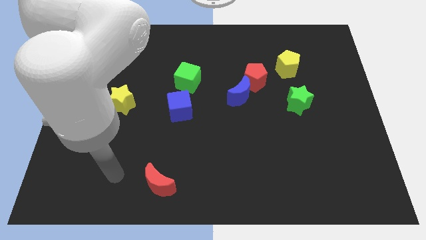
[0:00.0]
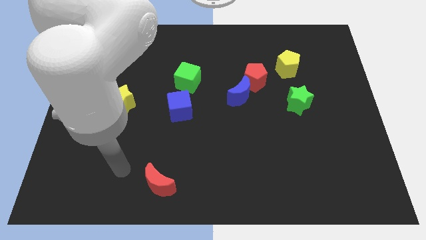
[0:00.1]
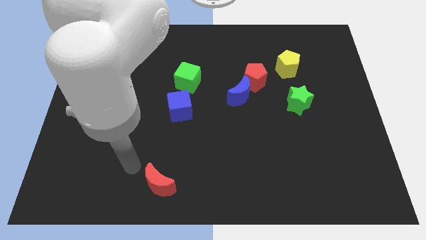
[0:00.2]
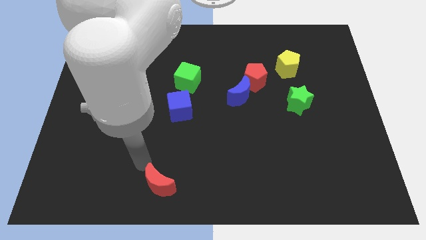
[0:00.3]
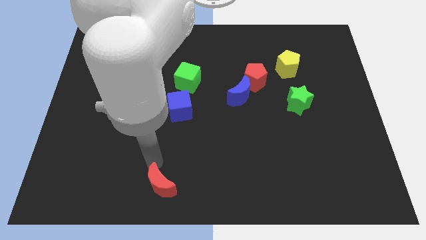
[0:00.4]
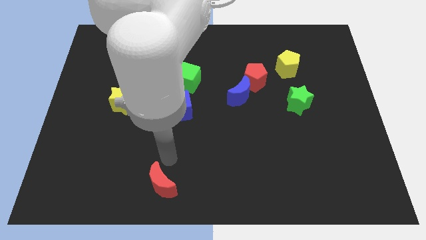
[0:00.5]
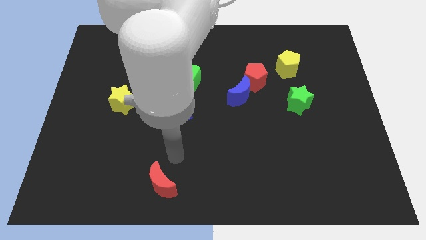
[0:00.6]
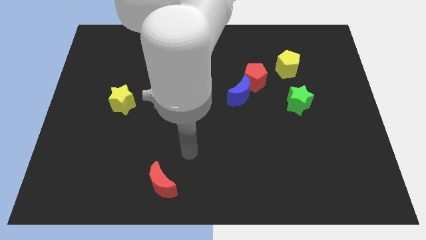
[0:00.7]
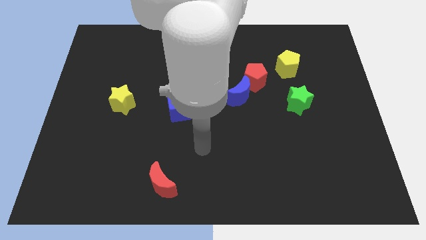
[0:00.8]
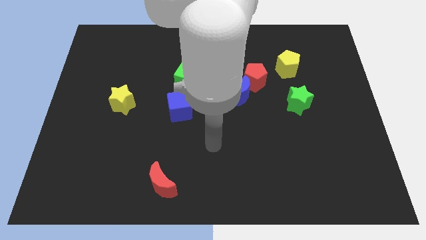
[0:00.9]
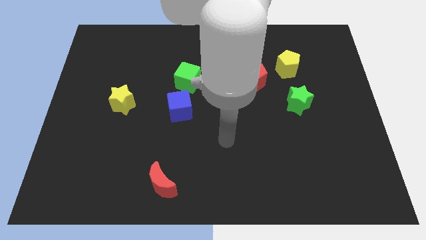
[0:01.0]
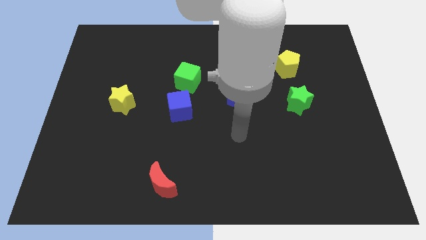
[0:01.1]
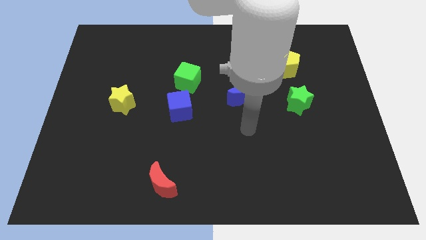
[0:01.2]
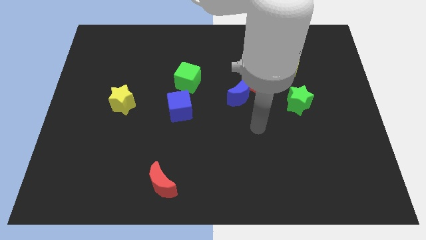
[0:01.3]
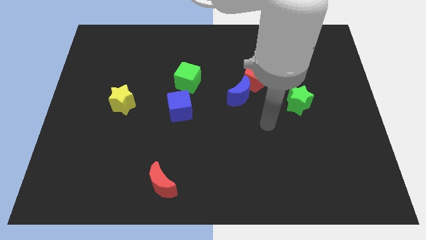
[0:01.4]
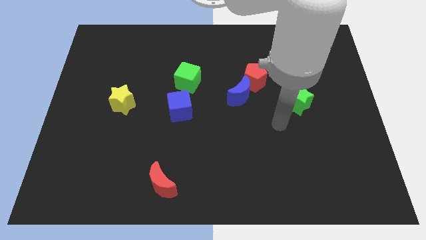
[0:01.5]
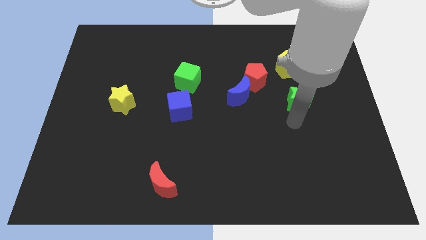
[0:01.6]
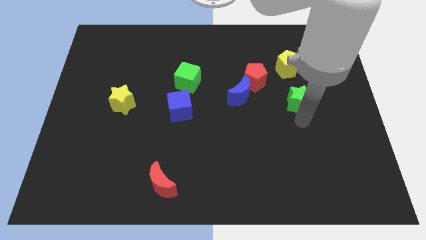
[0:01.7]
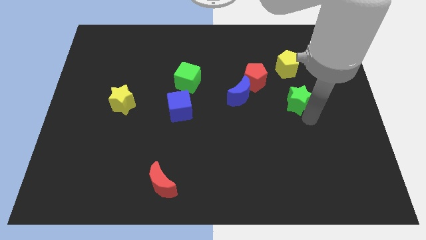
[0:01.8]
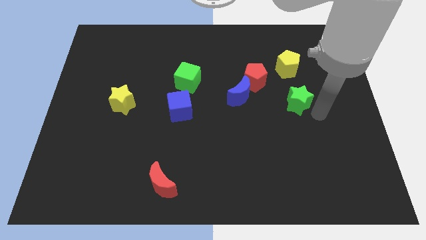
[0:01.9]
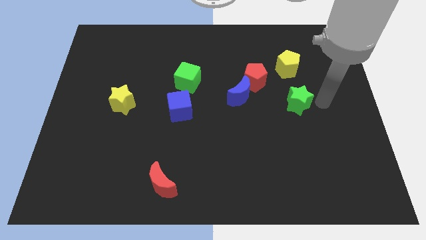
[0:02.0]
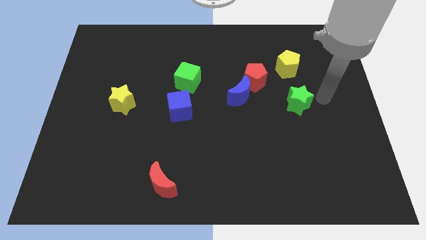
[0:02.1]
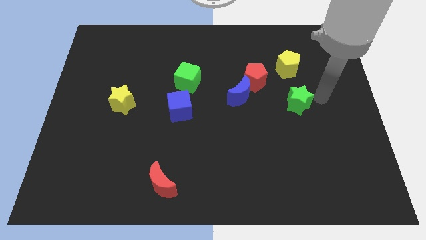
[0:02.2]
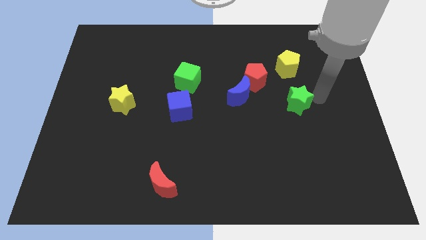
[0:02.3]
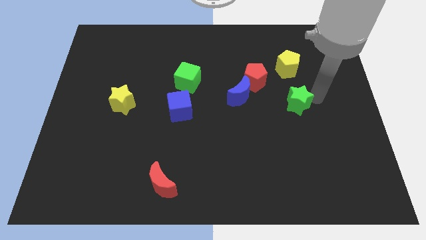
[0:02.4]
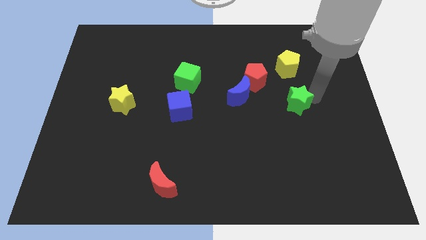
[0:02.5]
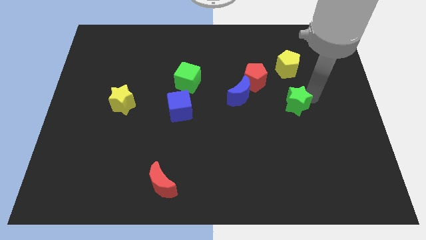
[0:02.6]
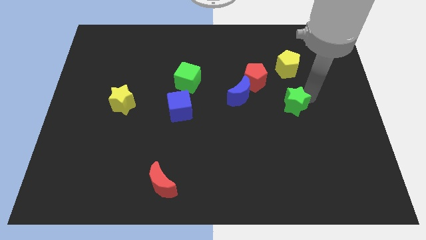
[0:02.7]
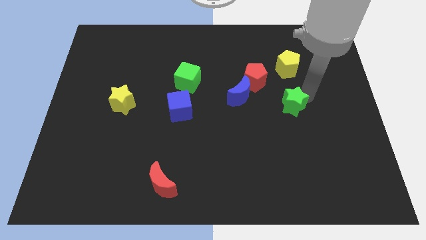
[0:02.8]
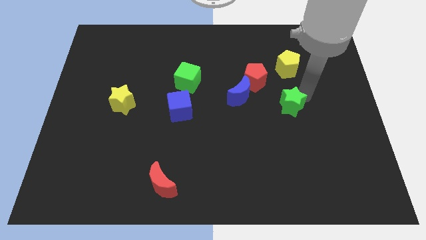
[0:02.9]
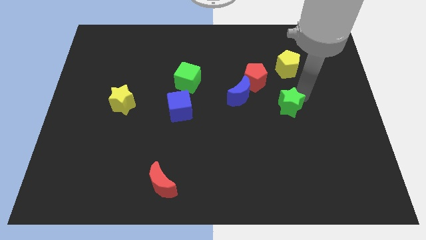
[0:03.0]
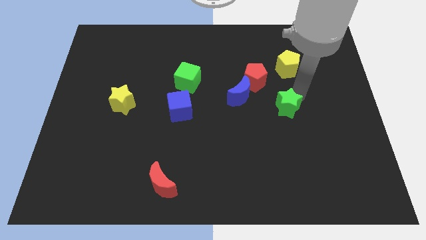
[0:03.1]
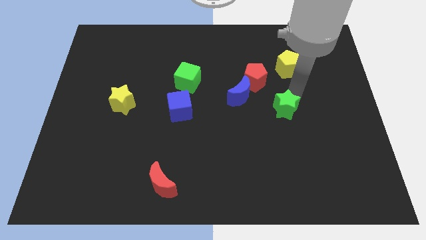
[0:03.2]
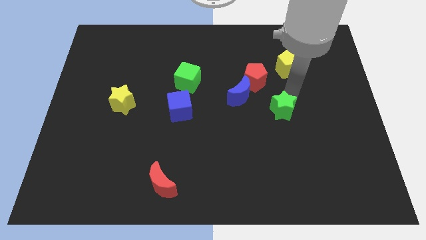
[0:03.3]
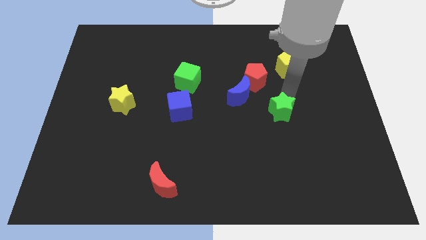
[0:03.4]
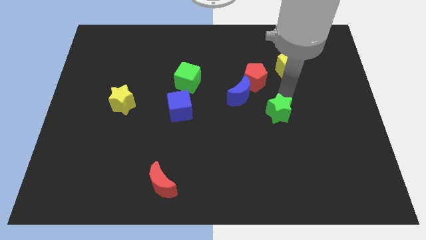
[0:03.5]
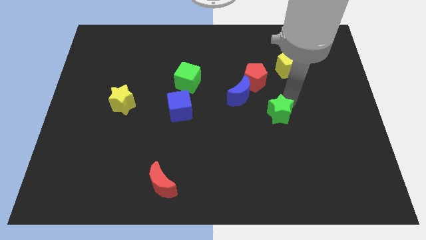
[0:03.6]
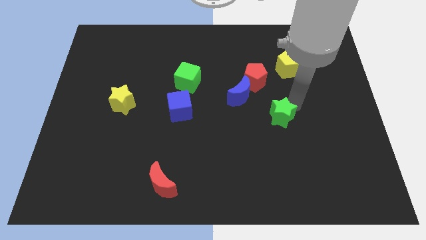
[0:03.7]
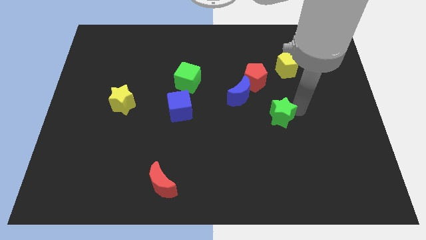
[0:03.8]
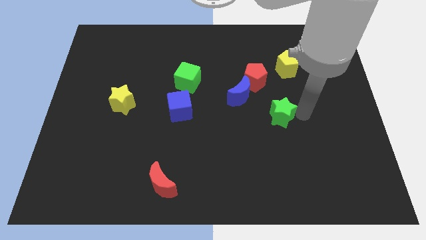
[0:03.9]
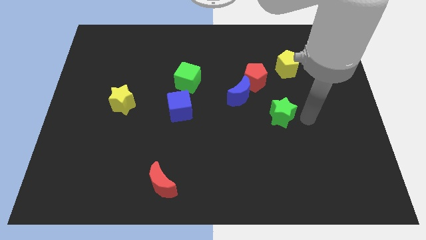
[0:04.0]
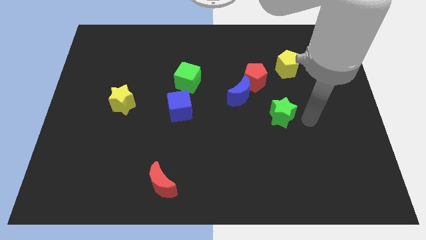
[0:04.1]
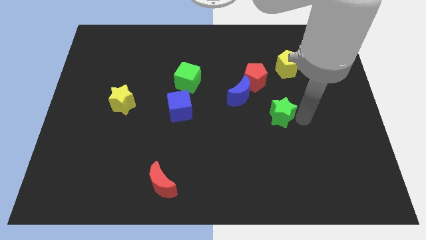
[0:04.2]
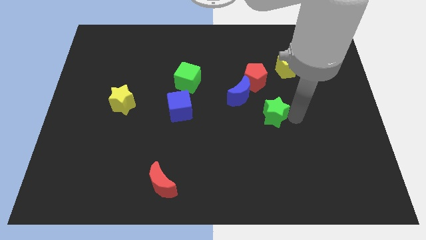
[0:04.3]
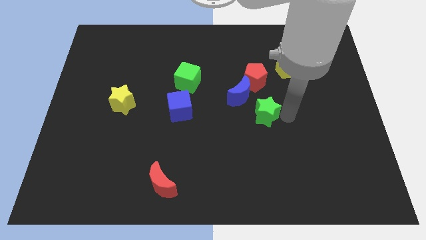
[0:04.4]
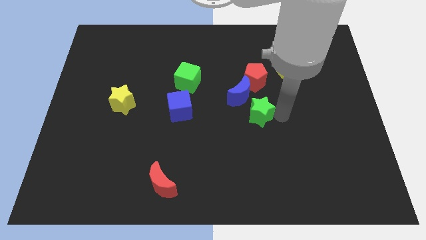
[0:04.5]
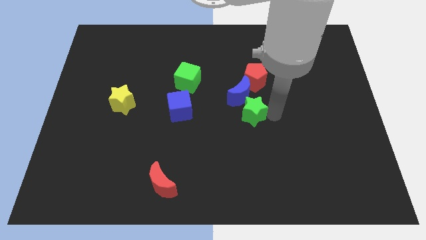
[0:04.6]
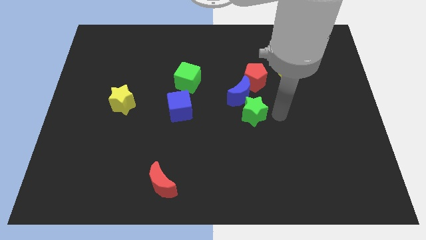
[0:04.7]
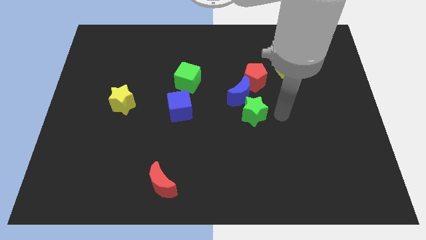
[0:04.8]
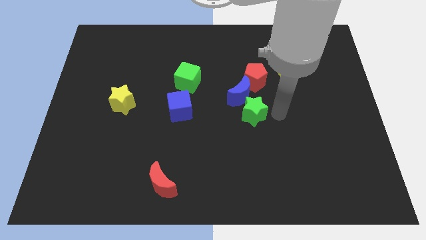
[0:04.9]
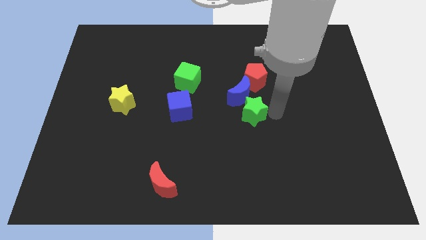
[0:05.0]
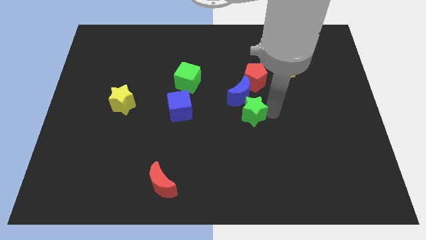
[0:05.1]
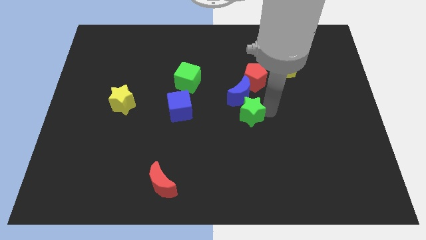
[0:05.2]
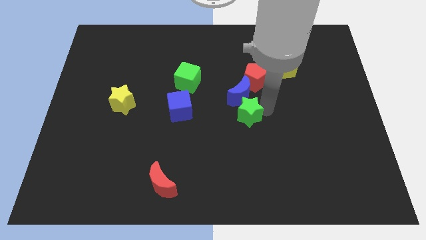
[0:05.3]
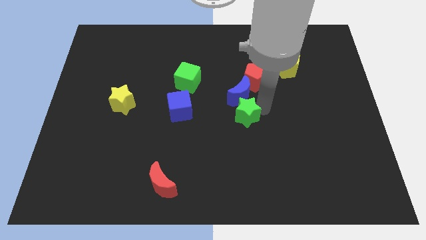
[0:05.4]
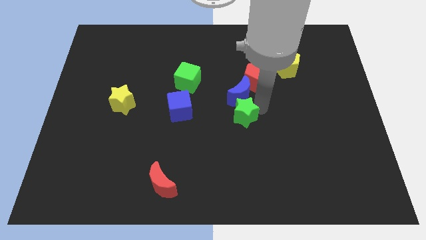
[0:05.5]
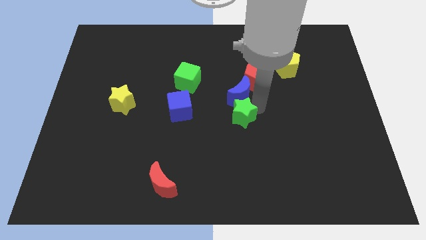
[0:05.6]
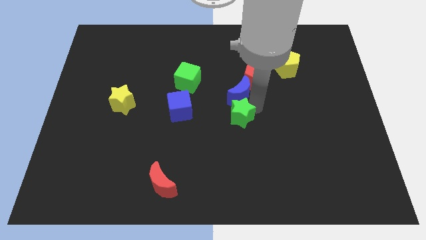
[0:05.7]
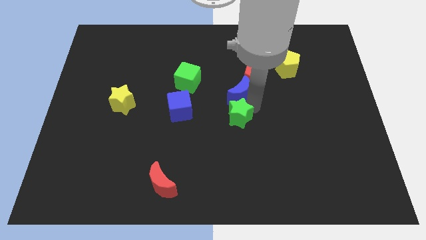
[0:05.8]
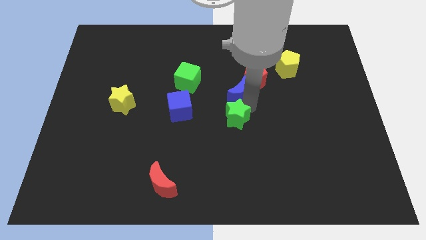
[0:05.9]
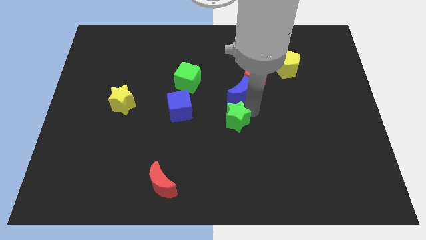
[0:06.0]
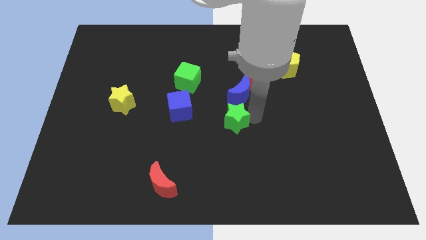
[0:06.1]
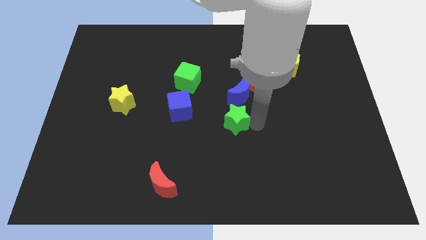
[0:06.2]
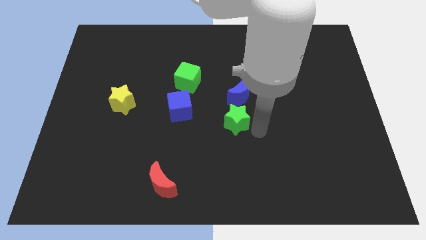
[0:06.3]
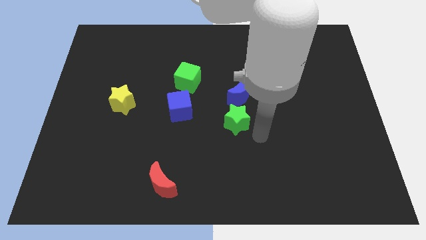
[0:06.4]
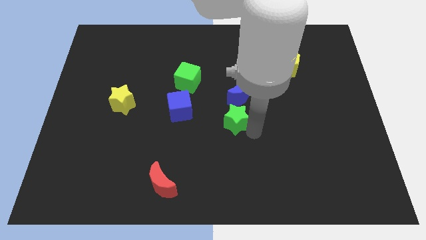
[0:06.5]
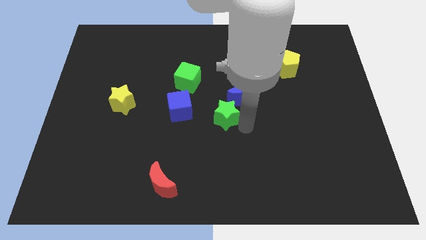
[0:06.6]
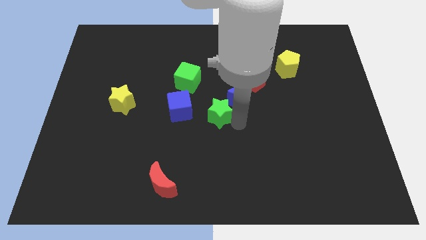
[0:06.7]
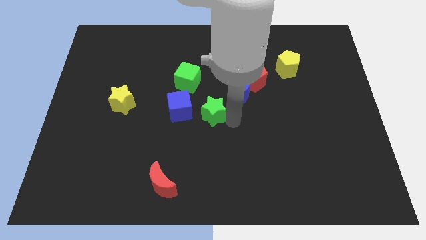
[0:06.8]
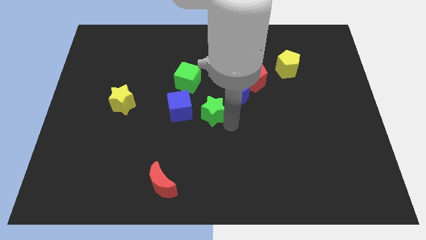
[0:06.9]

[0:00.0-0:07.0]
move the green star left

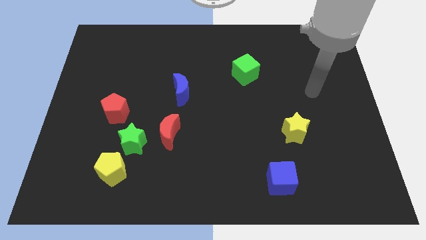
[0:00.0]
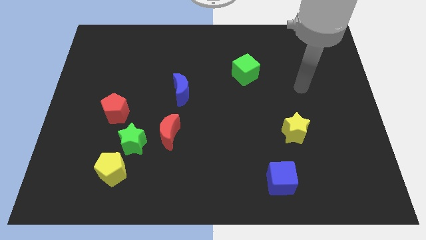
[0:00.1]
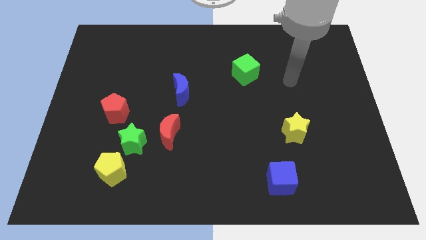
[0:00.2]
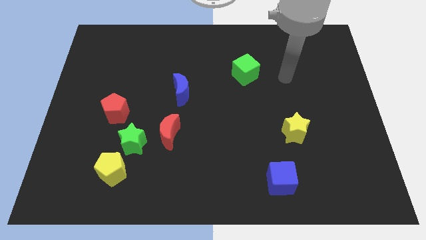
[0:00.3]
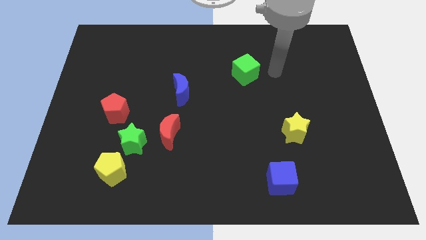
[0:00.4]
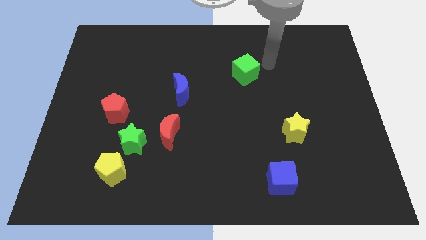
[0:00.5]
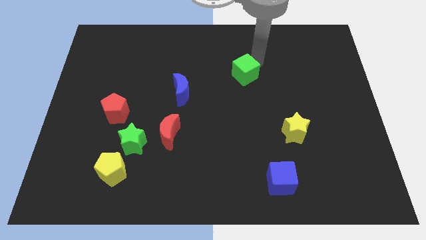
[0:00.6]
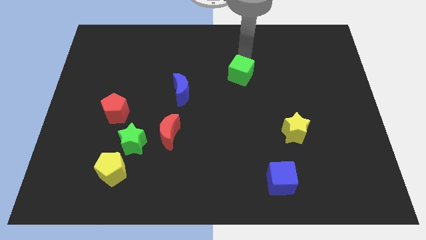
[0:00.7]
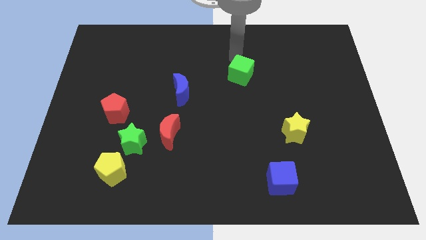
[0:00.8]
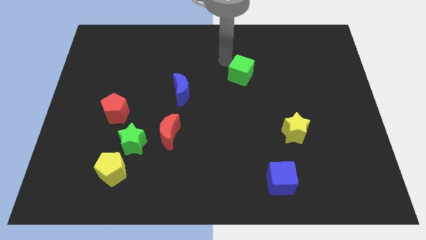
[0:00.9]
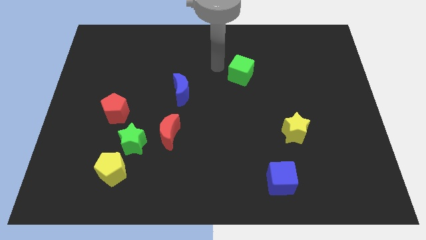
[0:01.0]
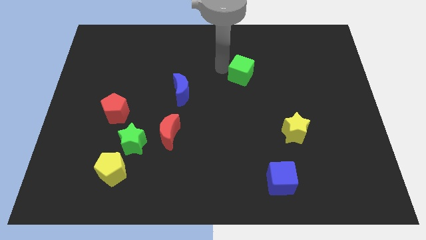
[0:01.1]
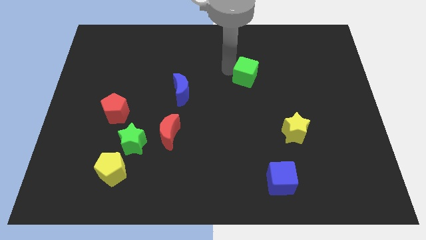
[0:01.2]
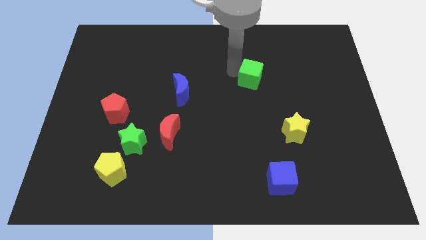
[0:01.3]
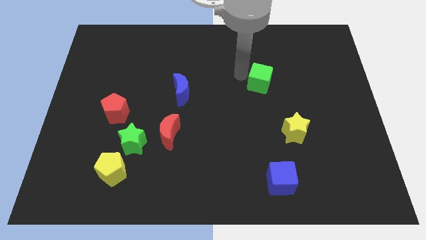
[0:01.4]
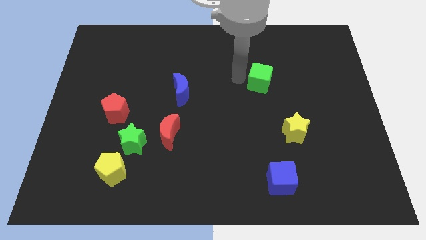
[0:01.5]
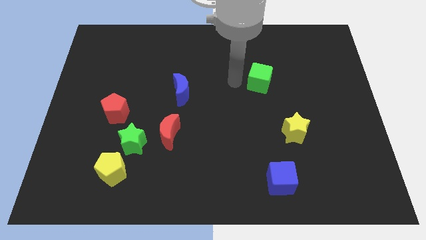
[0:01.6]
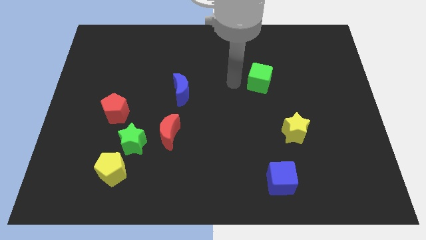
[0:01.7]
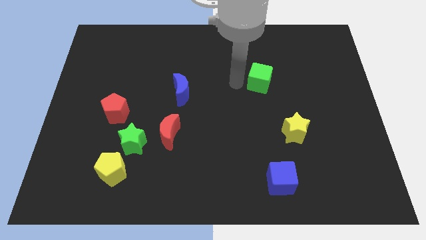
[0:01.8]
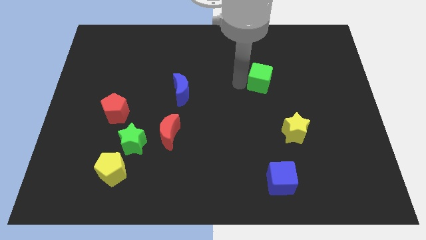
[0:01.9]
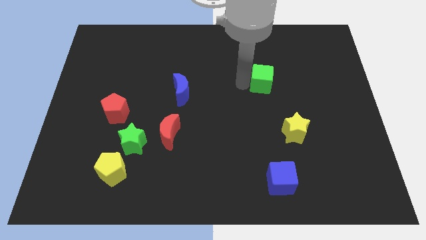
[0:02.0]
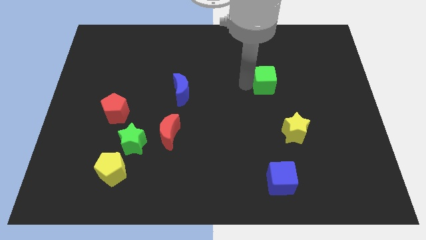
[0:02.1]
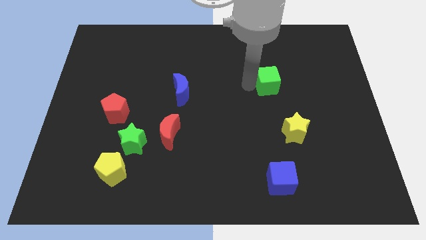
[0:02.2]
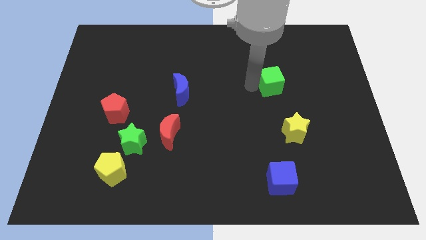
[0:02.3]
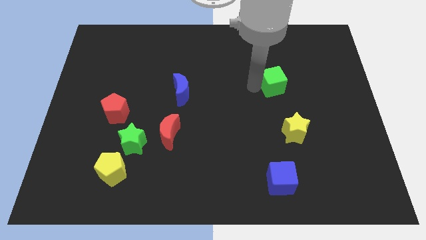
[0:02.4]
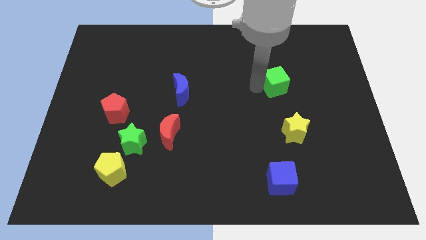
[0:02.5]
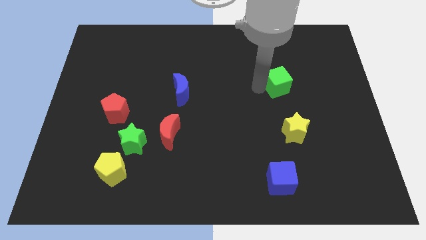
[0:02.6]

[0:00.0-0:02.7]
push the green cube a bit to the right
